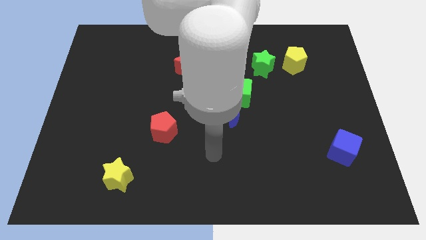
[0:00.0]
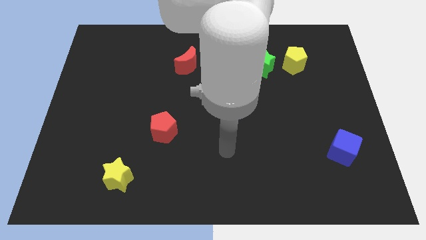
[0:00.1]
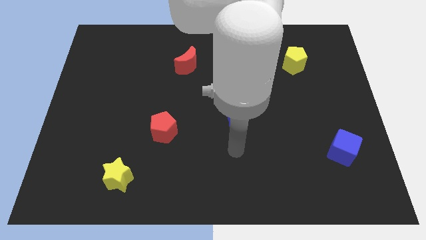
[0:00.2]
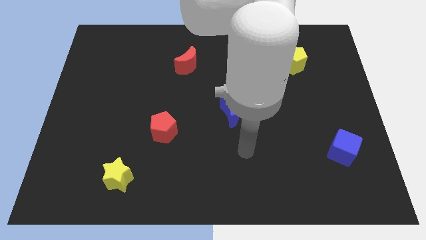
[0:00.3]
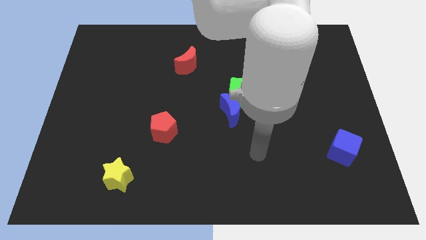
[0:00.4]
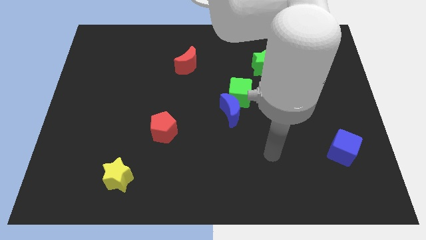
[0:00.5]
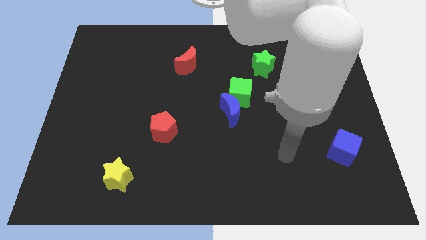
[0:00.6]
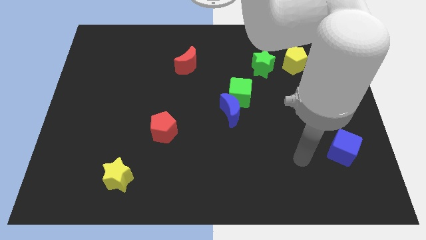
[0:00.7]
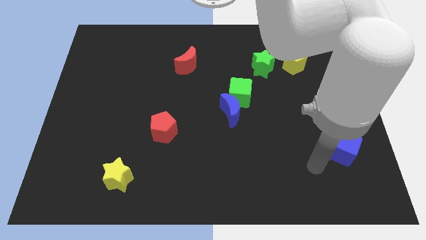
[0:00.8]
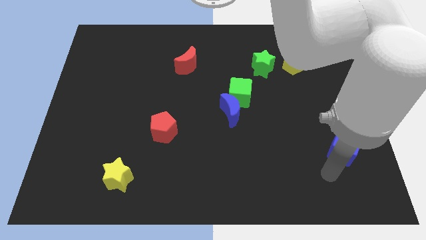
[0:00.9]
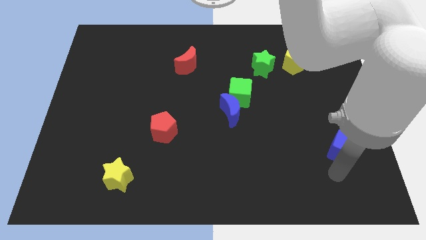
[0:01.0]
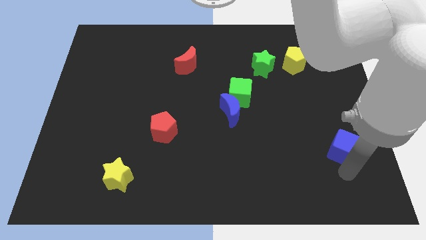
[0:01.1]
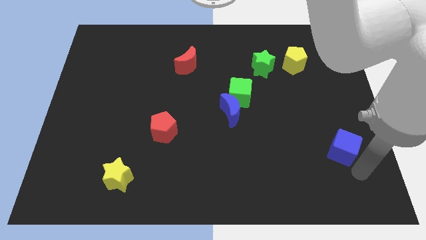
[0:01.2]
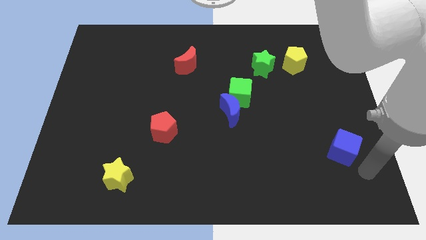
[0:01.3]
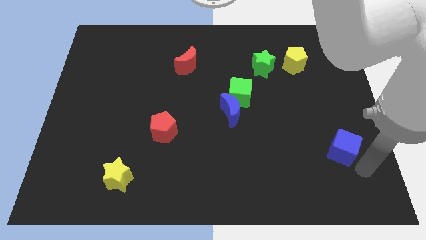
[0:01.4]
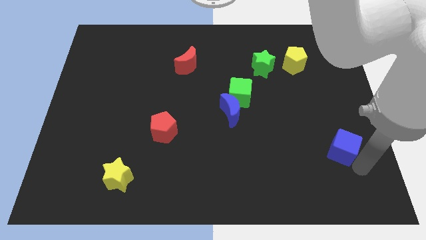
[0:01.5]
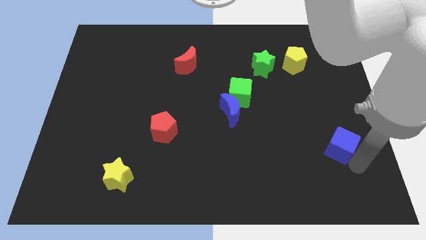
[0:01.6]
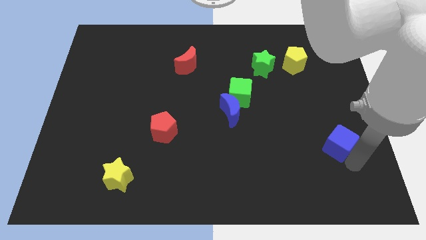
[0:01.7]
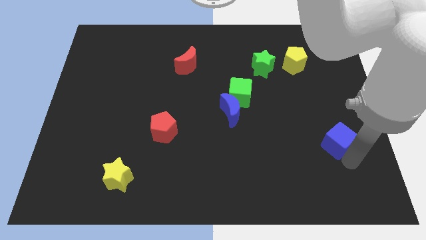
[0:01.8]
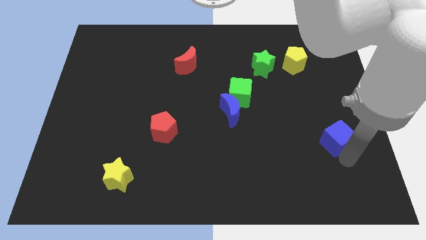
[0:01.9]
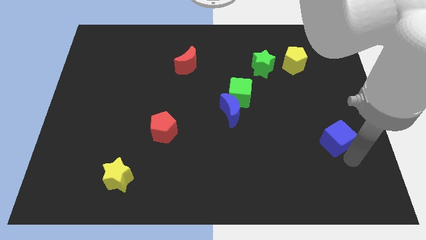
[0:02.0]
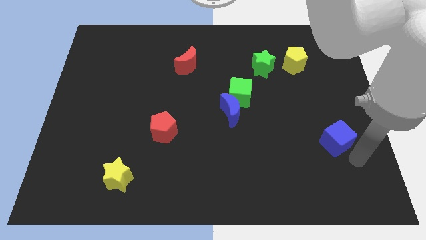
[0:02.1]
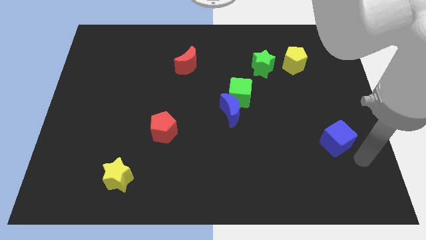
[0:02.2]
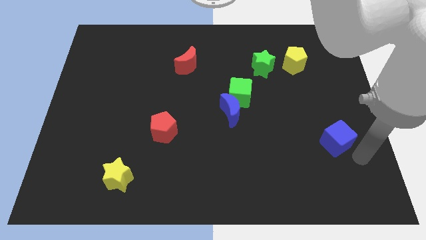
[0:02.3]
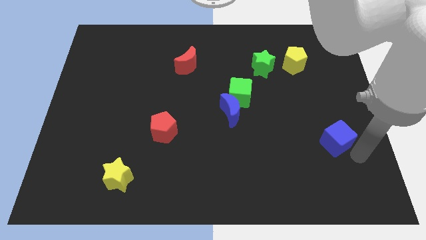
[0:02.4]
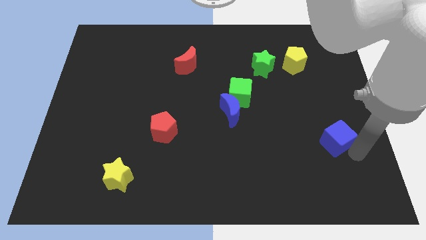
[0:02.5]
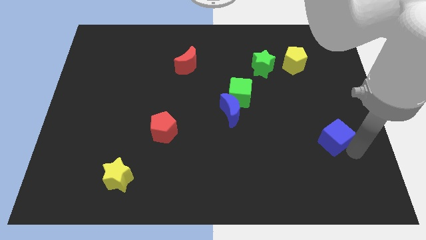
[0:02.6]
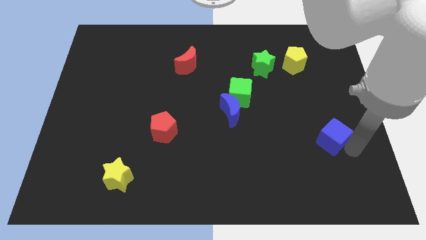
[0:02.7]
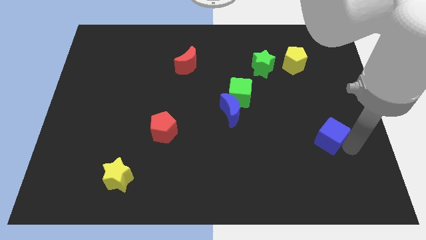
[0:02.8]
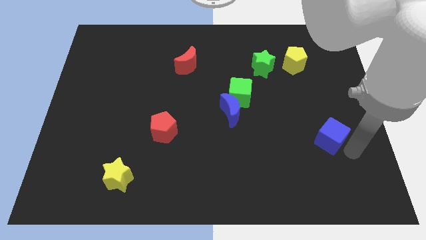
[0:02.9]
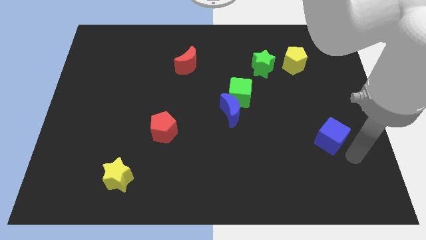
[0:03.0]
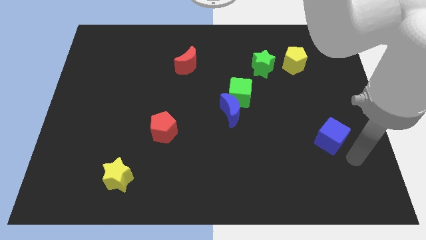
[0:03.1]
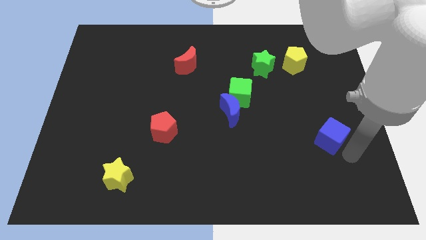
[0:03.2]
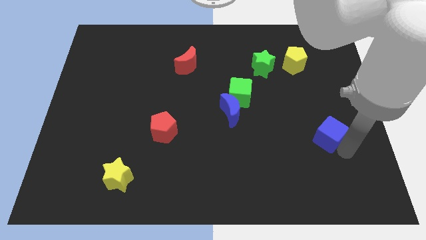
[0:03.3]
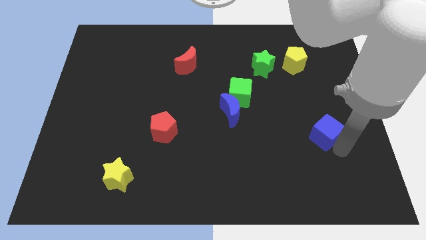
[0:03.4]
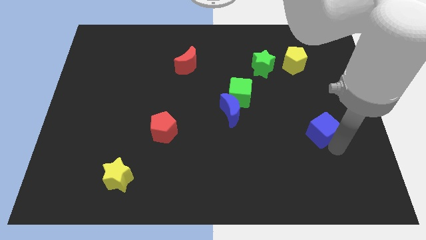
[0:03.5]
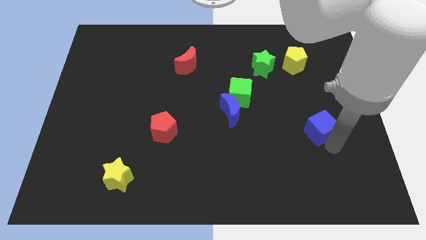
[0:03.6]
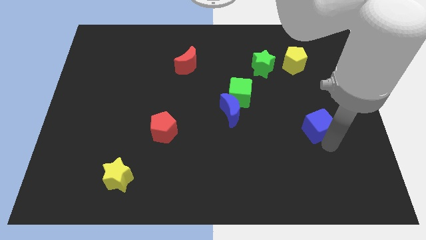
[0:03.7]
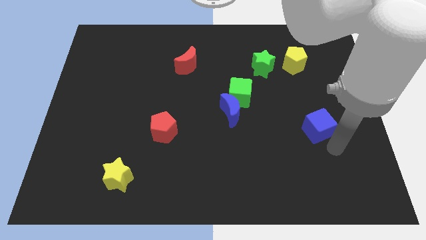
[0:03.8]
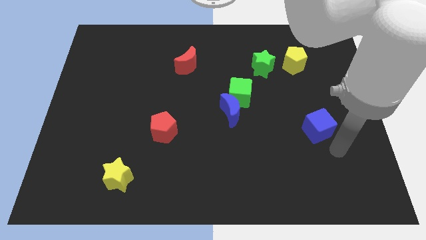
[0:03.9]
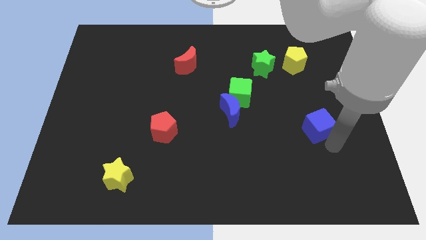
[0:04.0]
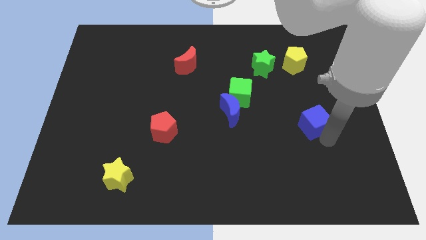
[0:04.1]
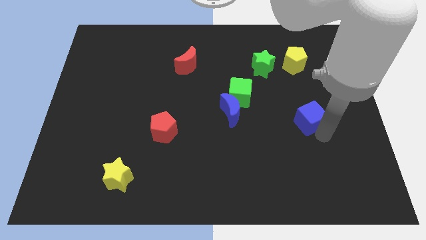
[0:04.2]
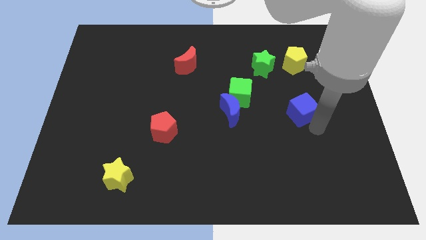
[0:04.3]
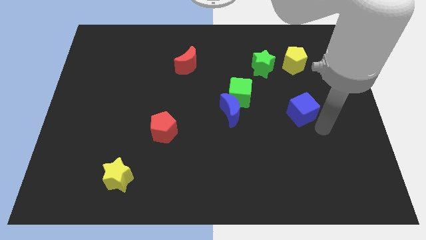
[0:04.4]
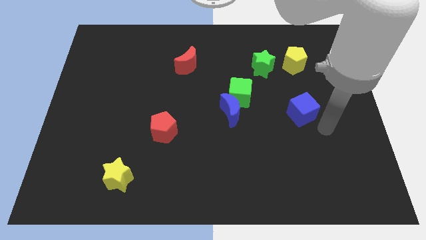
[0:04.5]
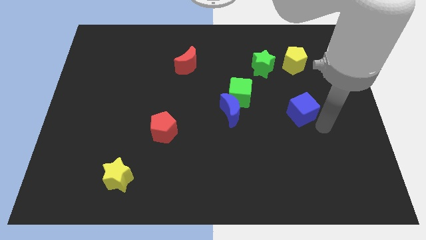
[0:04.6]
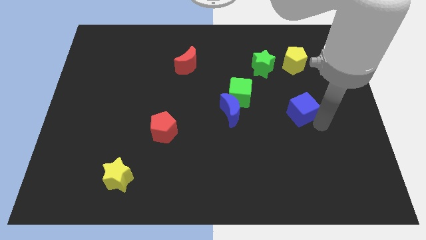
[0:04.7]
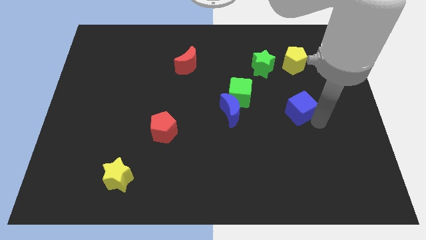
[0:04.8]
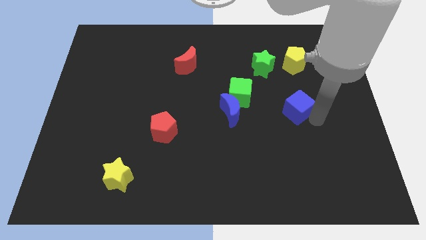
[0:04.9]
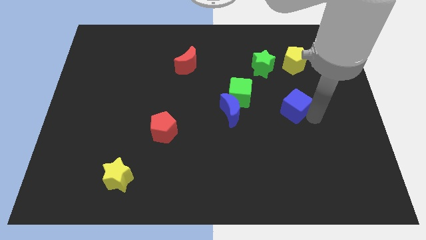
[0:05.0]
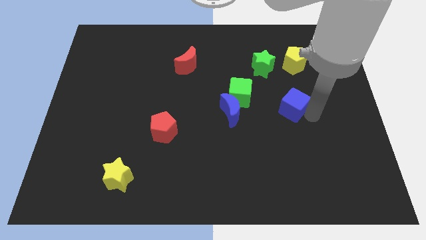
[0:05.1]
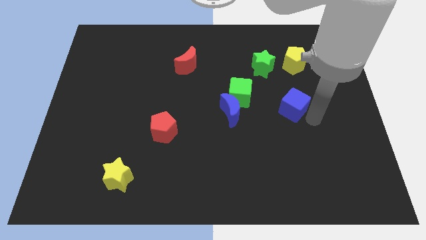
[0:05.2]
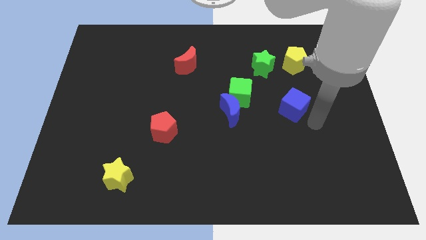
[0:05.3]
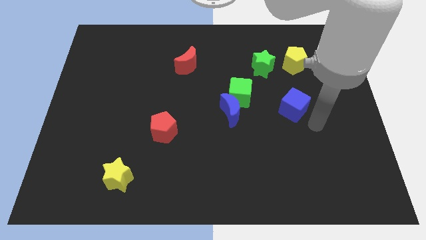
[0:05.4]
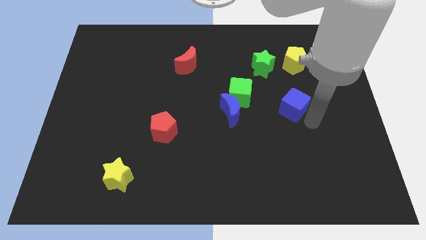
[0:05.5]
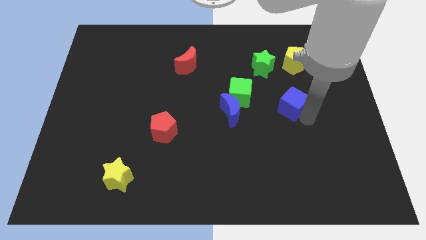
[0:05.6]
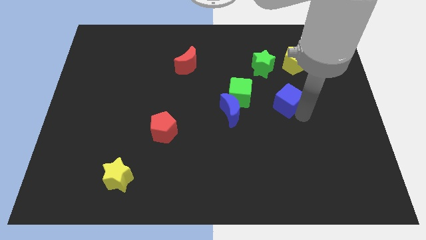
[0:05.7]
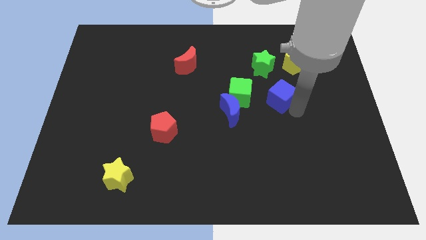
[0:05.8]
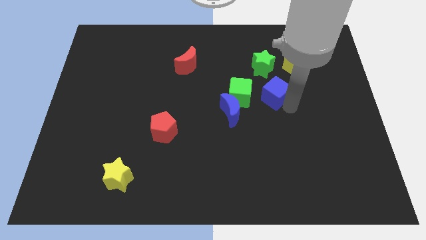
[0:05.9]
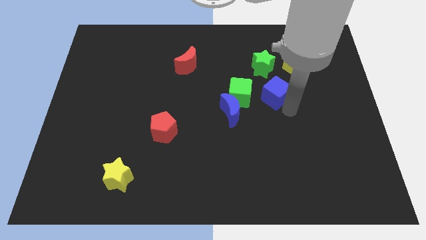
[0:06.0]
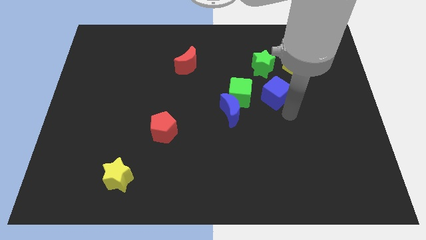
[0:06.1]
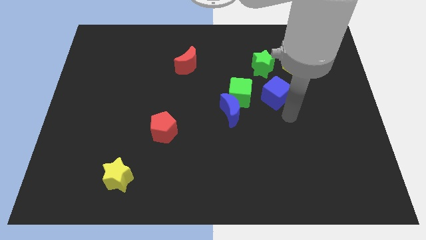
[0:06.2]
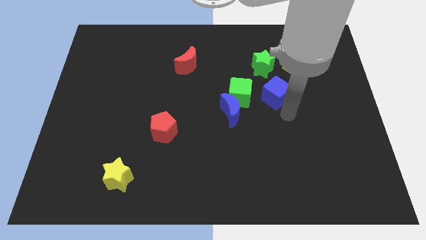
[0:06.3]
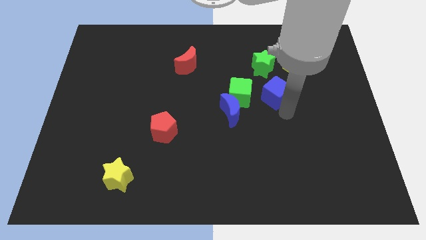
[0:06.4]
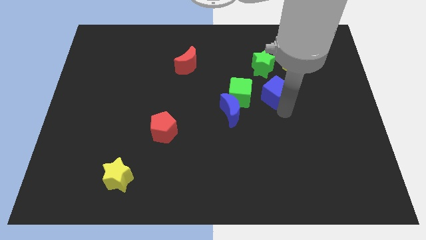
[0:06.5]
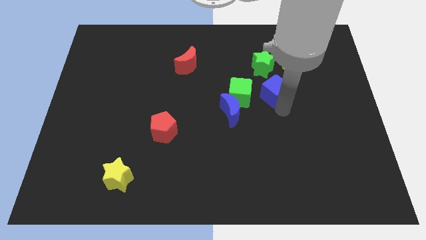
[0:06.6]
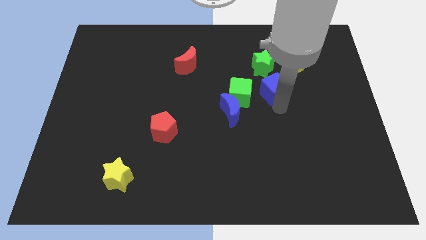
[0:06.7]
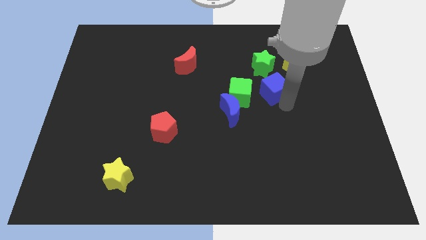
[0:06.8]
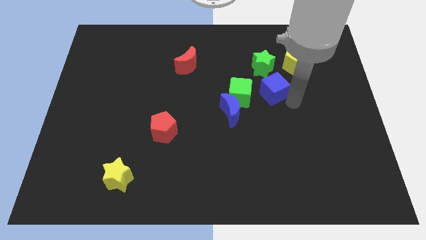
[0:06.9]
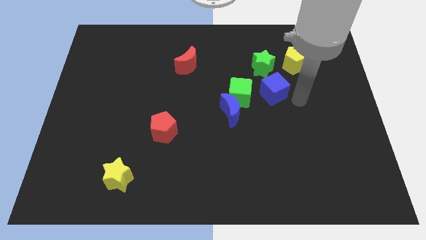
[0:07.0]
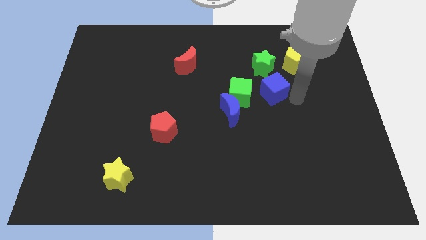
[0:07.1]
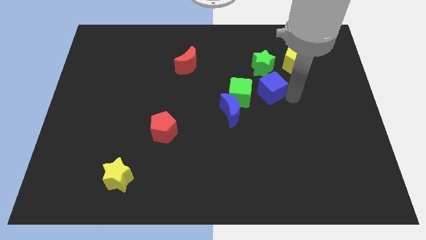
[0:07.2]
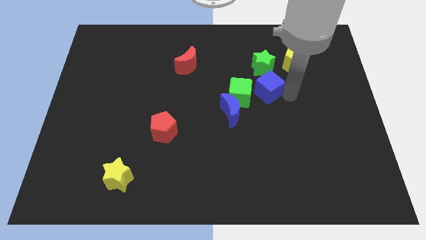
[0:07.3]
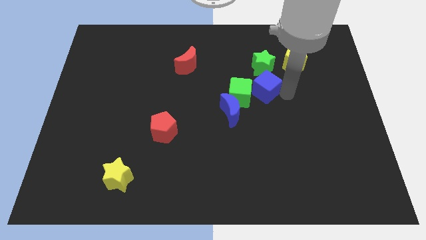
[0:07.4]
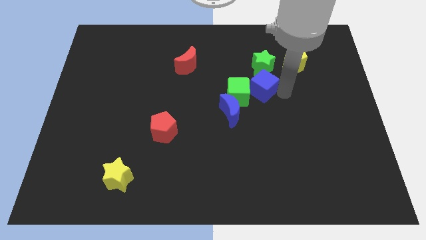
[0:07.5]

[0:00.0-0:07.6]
move the blue cube to the bottom left of the green star
